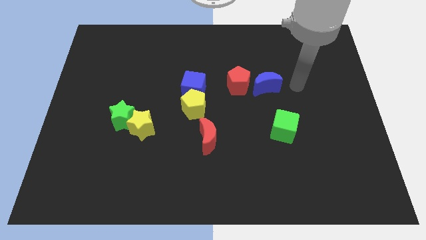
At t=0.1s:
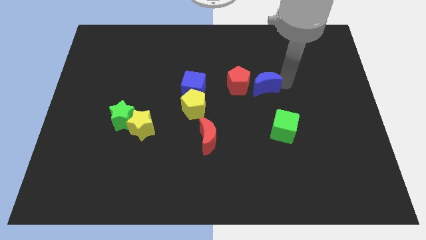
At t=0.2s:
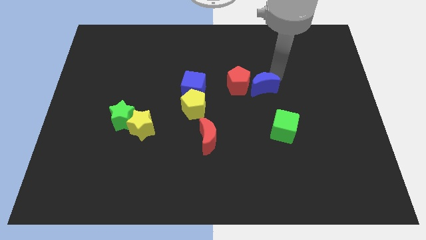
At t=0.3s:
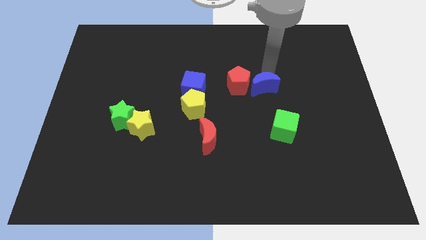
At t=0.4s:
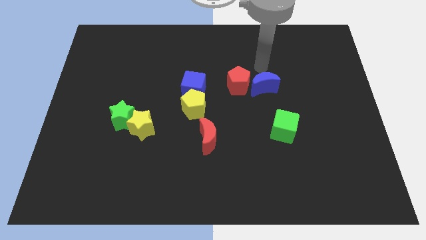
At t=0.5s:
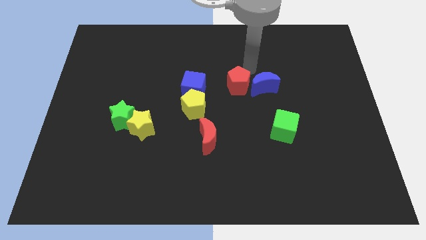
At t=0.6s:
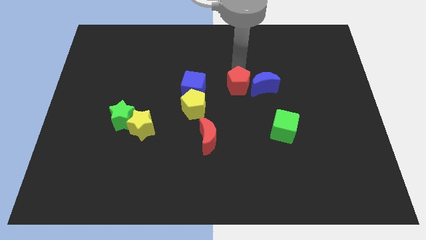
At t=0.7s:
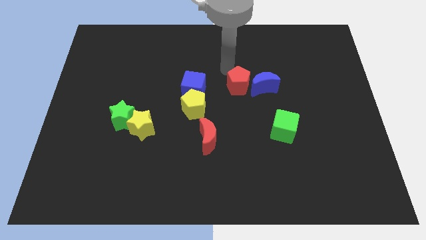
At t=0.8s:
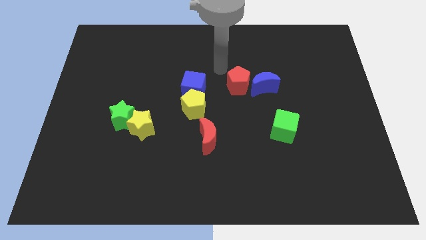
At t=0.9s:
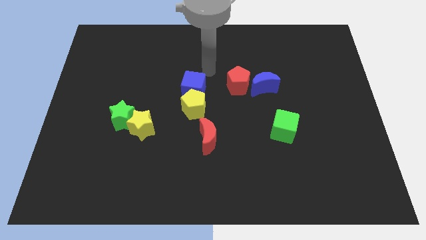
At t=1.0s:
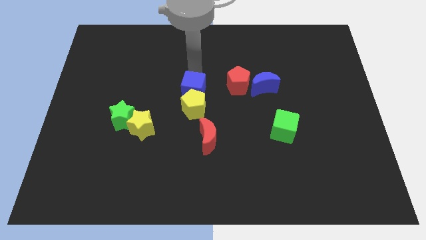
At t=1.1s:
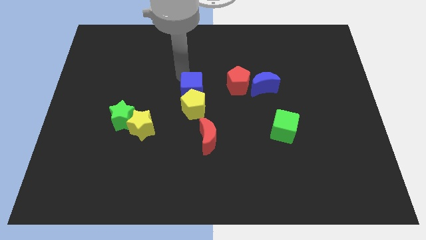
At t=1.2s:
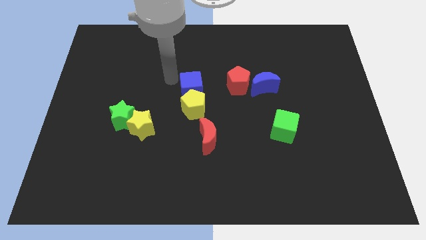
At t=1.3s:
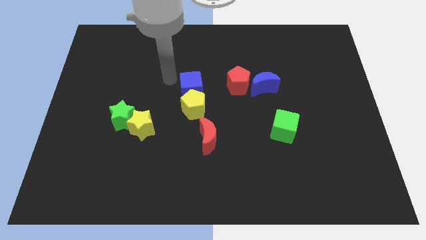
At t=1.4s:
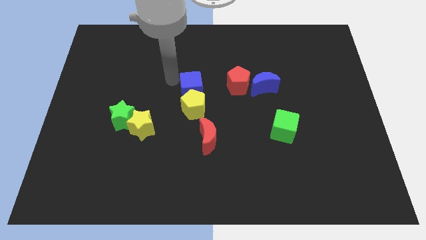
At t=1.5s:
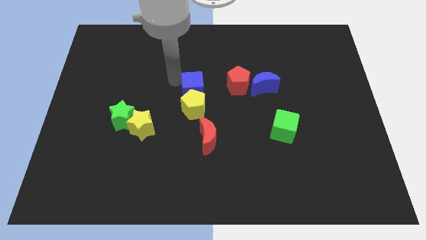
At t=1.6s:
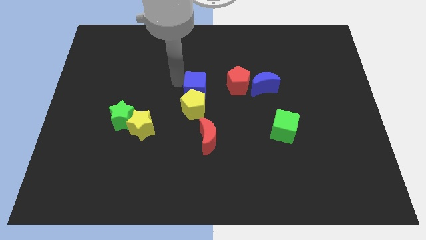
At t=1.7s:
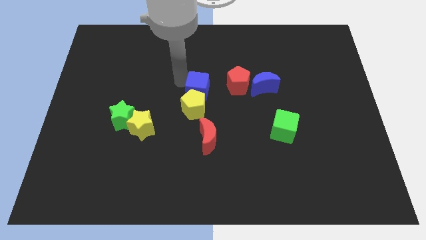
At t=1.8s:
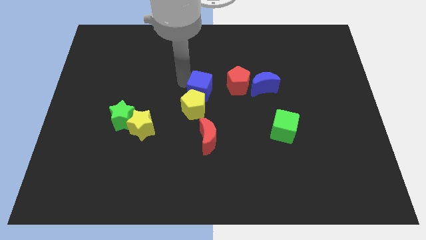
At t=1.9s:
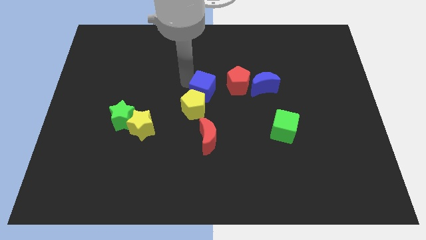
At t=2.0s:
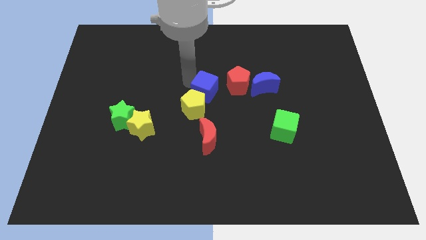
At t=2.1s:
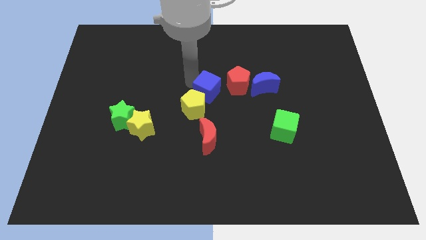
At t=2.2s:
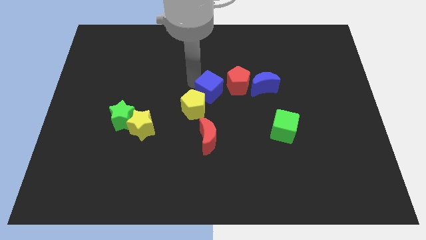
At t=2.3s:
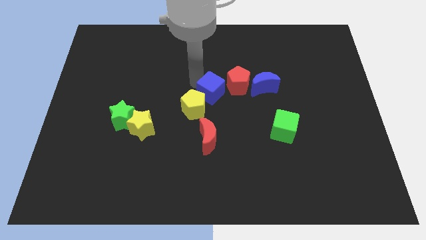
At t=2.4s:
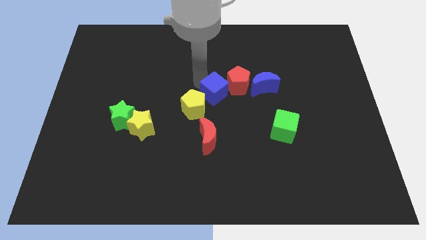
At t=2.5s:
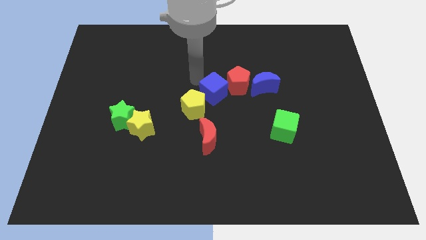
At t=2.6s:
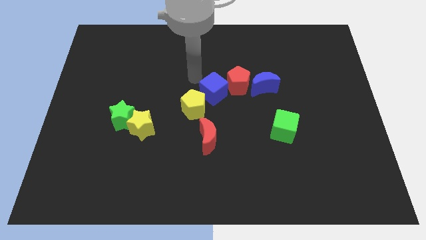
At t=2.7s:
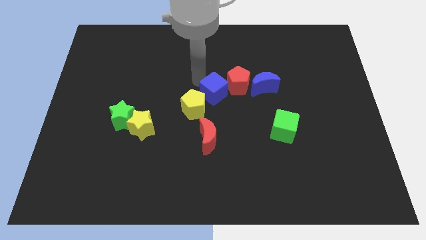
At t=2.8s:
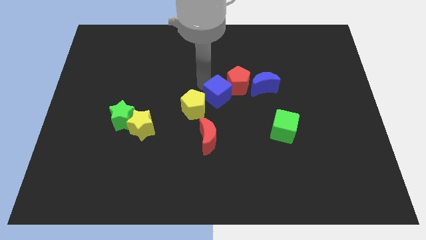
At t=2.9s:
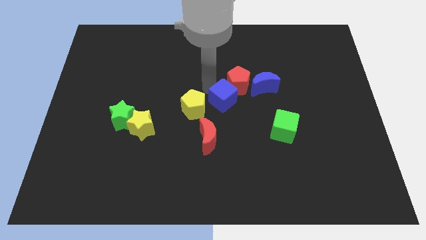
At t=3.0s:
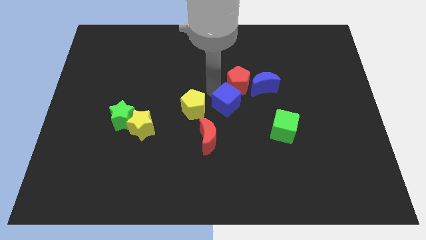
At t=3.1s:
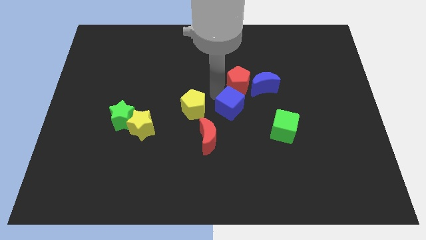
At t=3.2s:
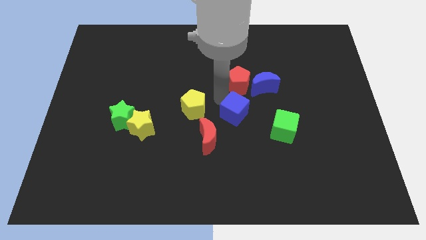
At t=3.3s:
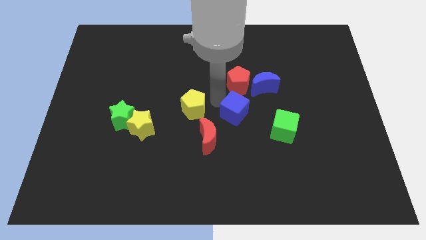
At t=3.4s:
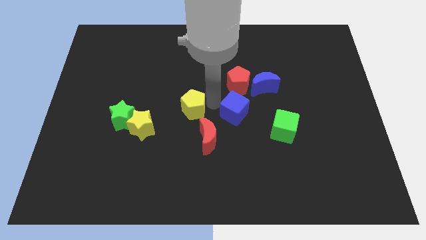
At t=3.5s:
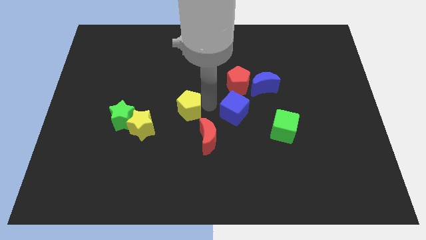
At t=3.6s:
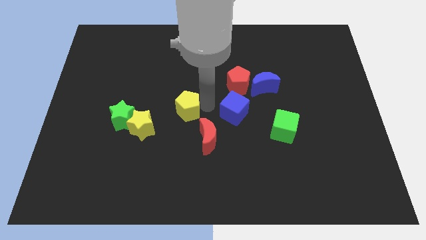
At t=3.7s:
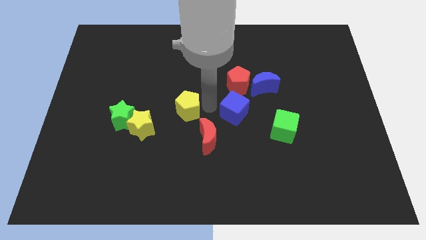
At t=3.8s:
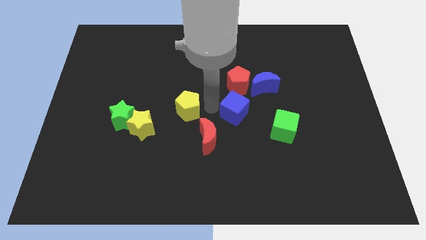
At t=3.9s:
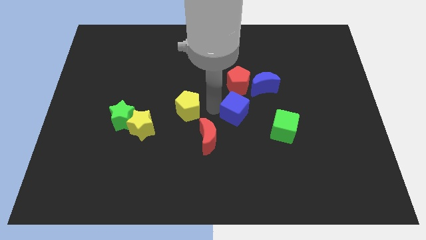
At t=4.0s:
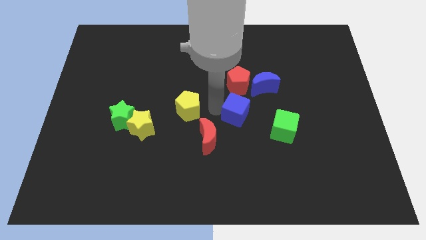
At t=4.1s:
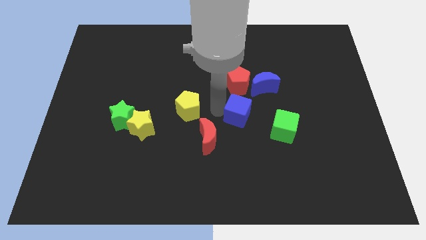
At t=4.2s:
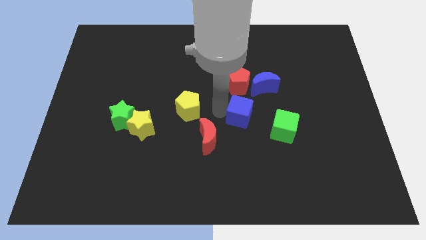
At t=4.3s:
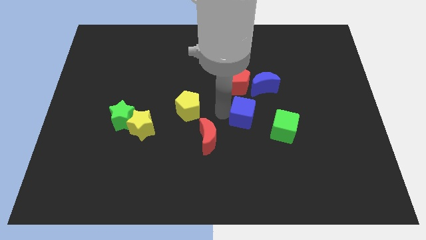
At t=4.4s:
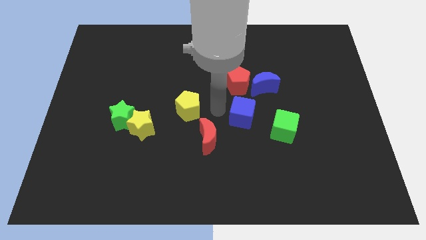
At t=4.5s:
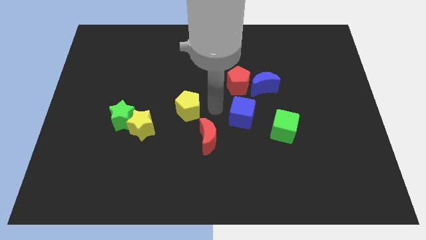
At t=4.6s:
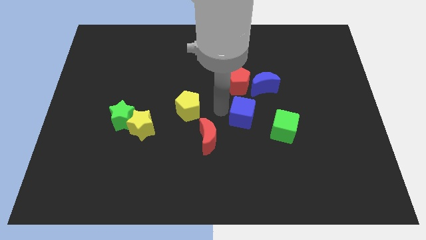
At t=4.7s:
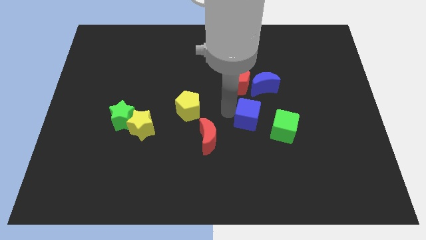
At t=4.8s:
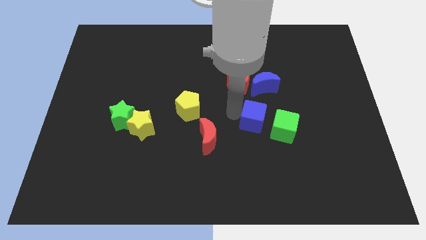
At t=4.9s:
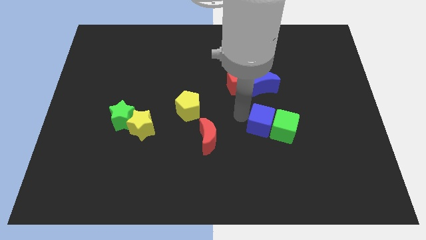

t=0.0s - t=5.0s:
slide the blue cube next to the green cube

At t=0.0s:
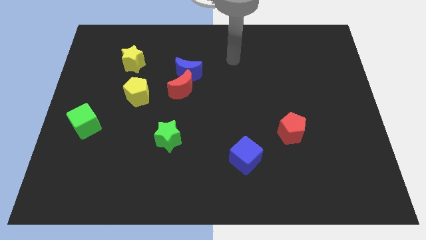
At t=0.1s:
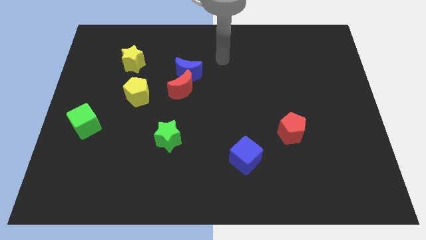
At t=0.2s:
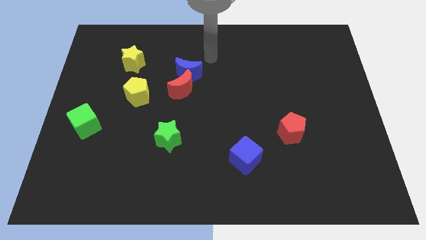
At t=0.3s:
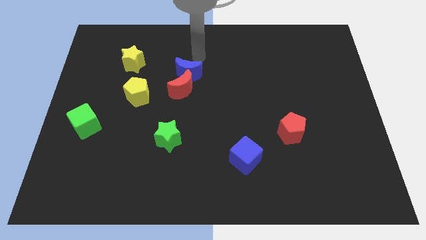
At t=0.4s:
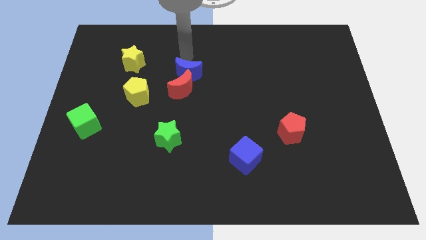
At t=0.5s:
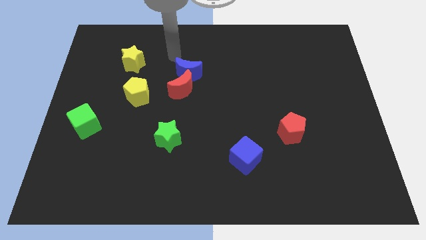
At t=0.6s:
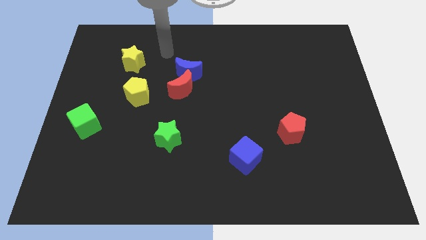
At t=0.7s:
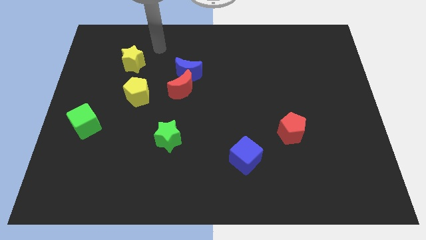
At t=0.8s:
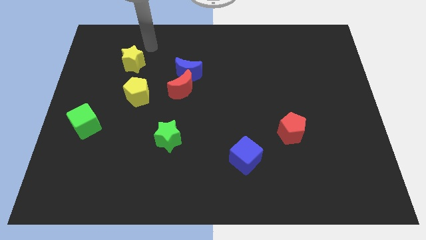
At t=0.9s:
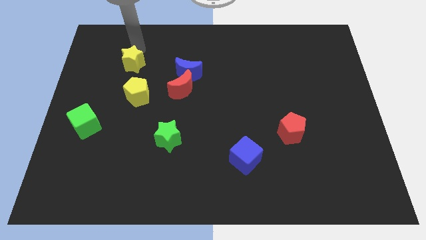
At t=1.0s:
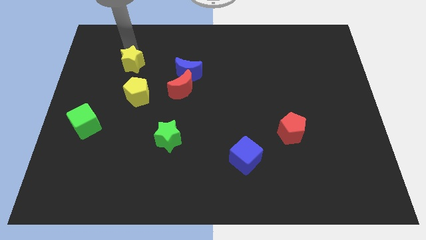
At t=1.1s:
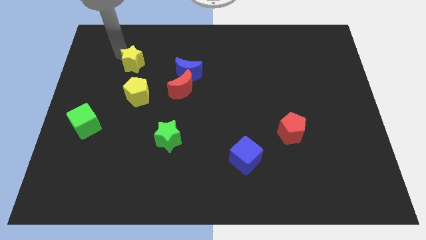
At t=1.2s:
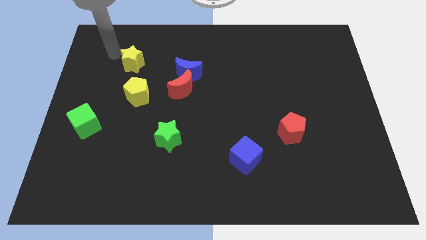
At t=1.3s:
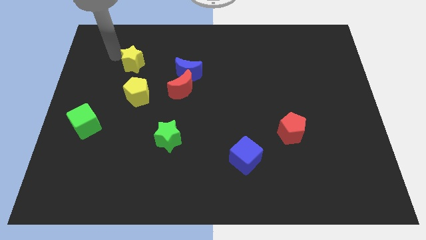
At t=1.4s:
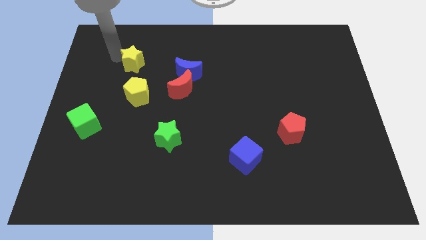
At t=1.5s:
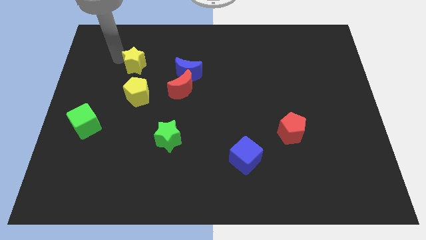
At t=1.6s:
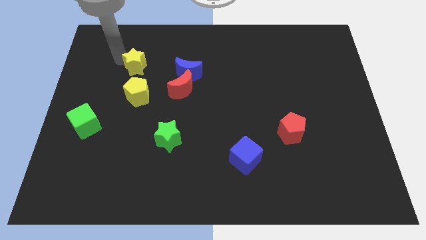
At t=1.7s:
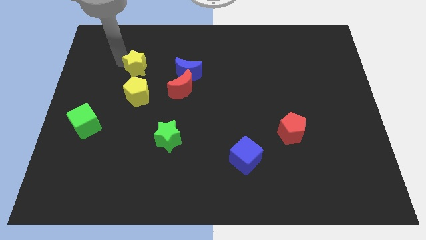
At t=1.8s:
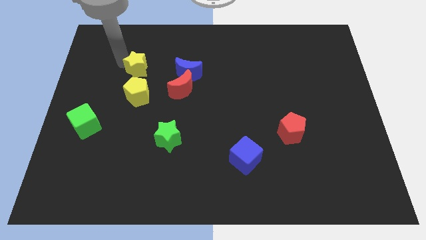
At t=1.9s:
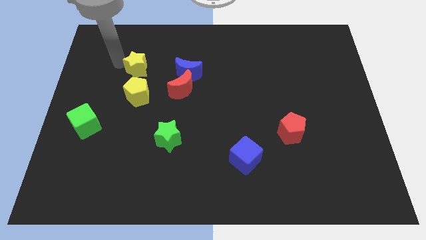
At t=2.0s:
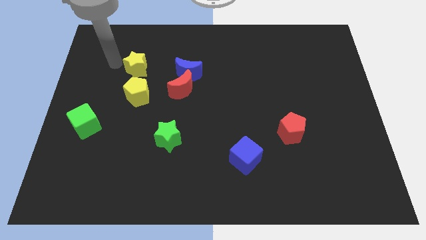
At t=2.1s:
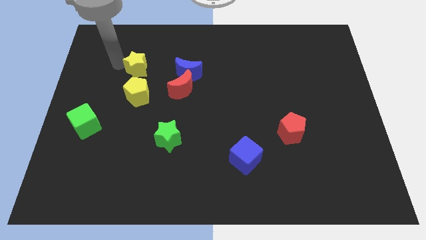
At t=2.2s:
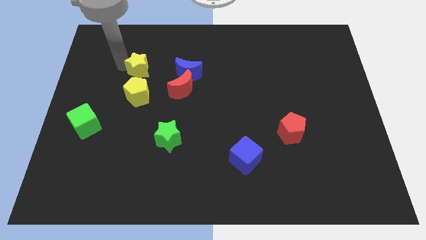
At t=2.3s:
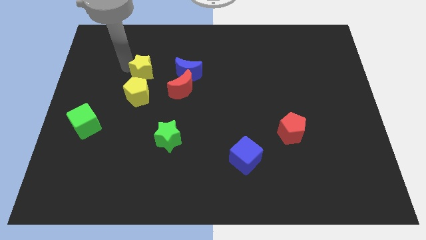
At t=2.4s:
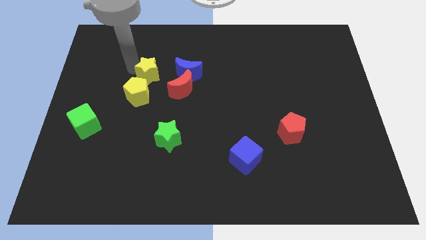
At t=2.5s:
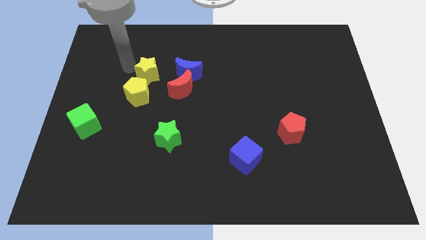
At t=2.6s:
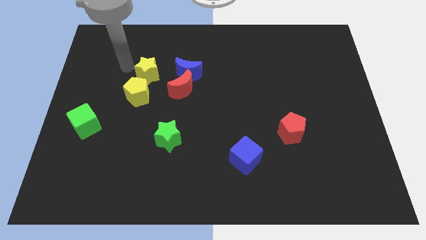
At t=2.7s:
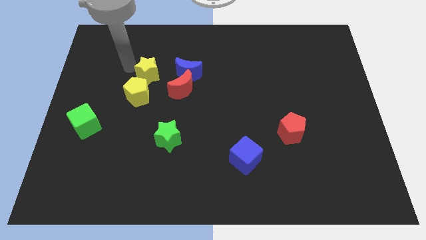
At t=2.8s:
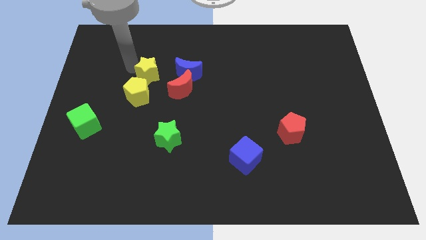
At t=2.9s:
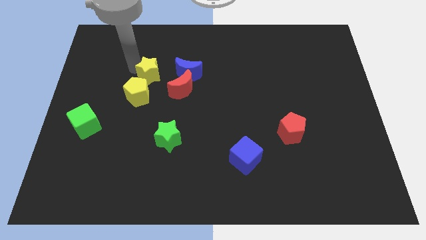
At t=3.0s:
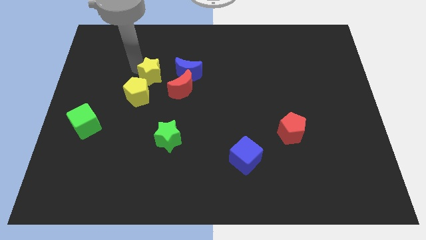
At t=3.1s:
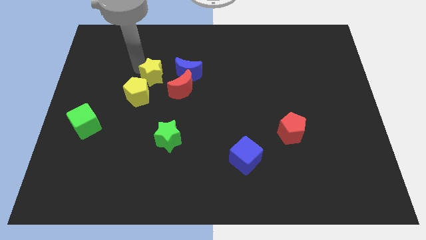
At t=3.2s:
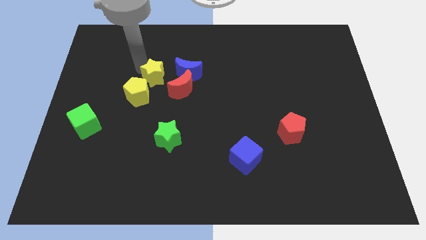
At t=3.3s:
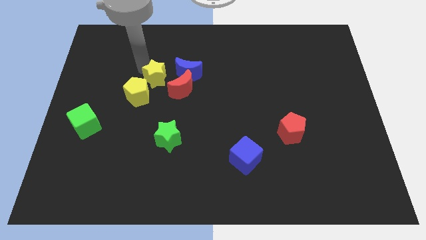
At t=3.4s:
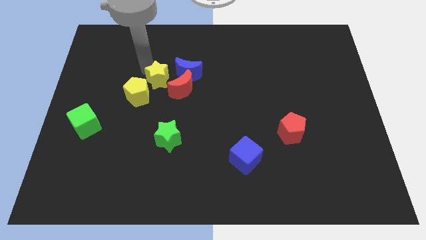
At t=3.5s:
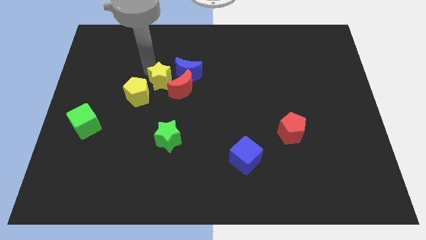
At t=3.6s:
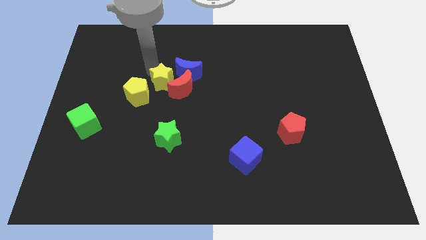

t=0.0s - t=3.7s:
push the yellow star next to the red moon
